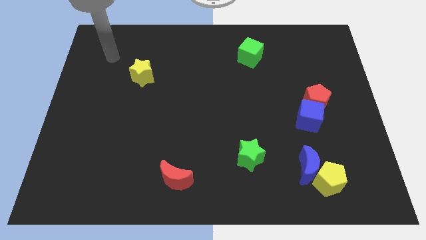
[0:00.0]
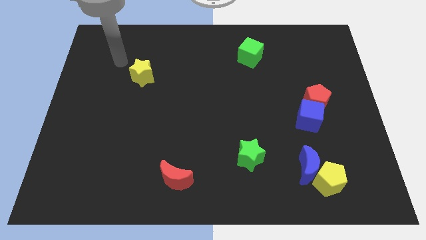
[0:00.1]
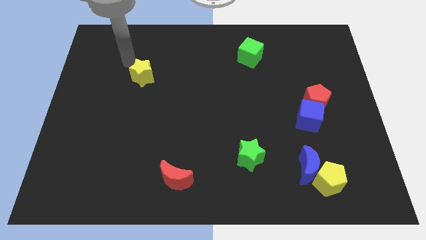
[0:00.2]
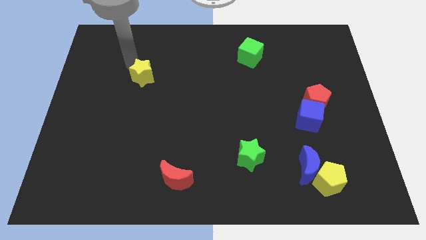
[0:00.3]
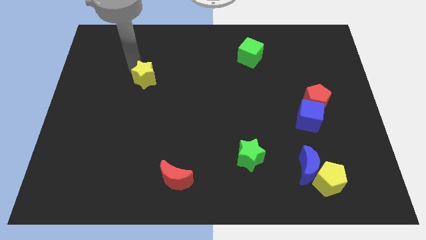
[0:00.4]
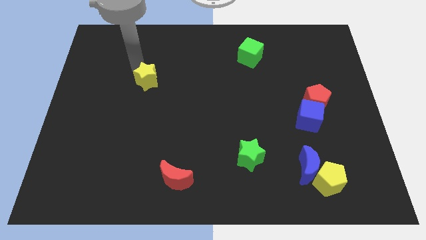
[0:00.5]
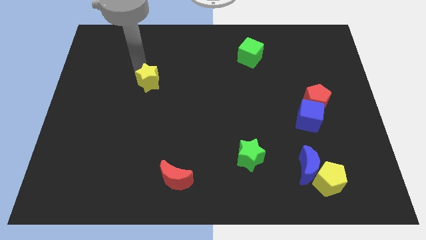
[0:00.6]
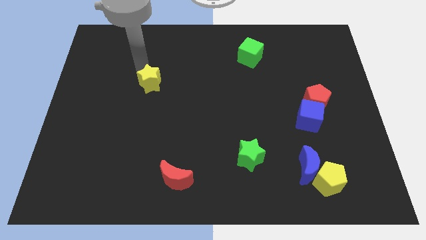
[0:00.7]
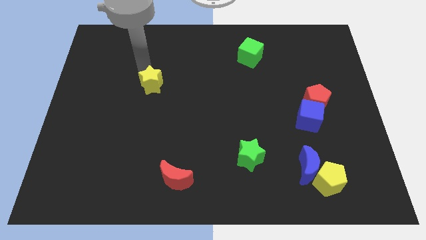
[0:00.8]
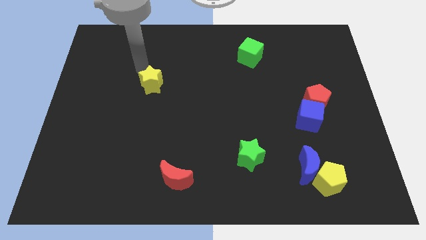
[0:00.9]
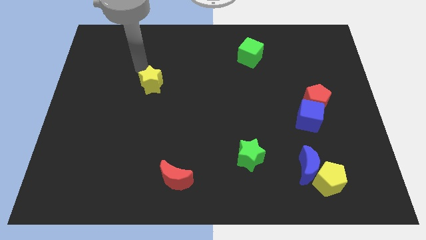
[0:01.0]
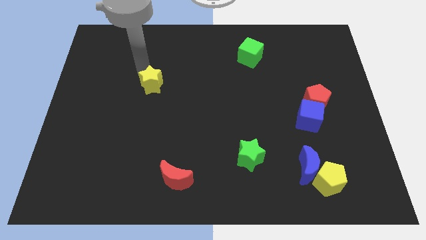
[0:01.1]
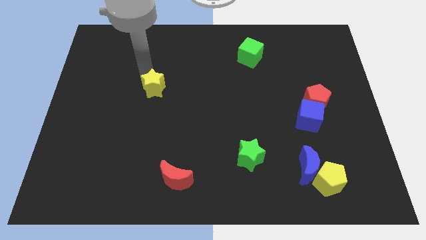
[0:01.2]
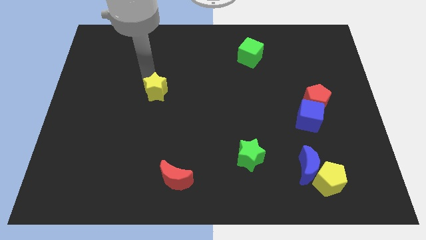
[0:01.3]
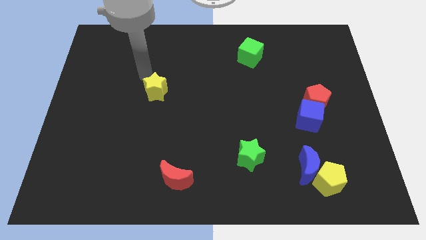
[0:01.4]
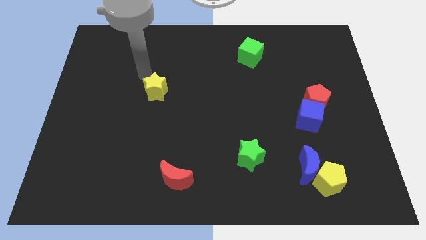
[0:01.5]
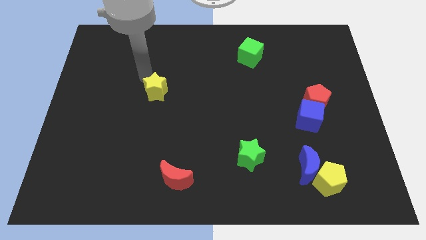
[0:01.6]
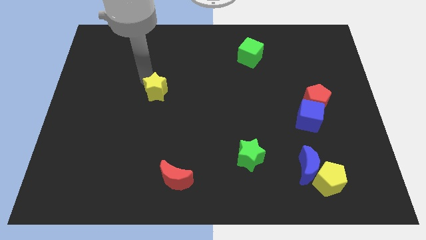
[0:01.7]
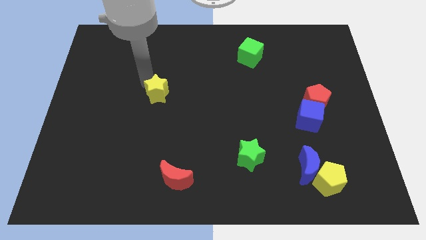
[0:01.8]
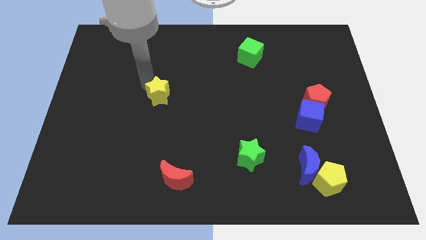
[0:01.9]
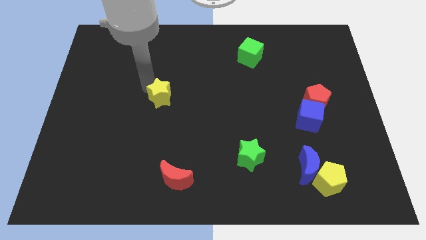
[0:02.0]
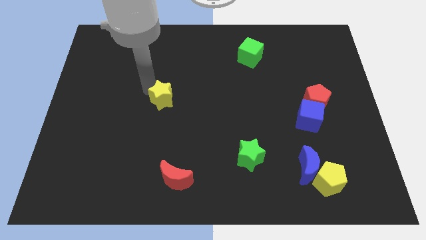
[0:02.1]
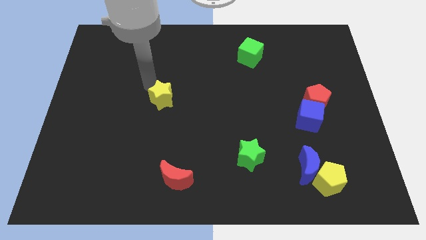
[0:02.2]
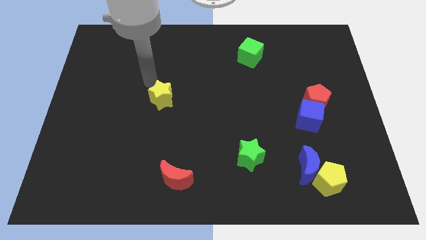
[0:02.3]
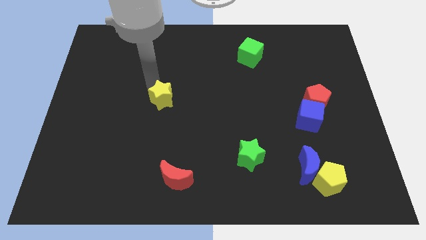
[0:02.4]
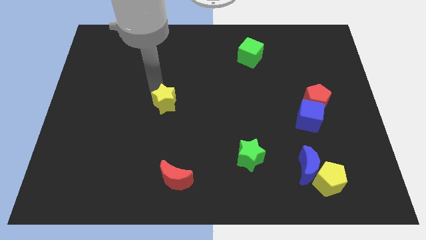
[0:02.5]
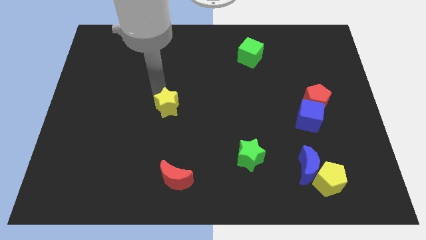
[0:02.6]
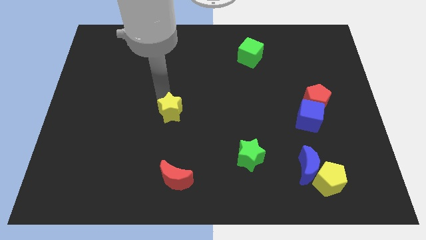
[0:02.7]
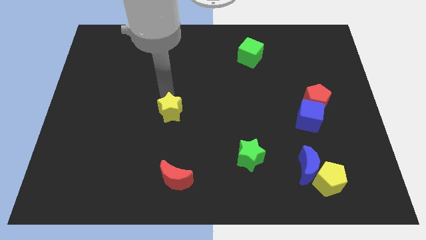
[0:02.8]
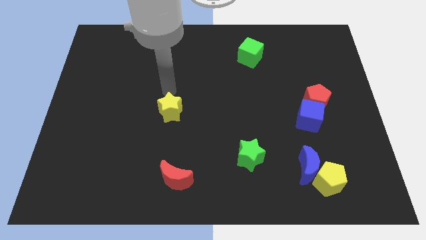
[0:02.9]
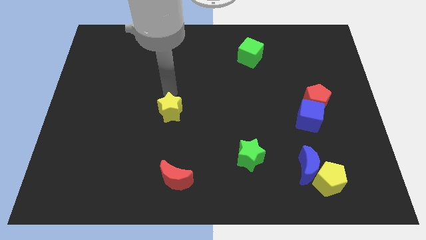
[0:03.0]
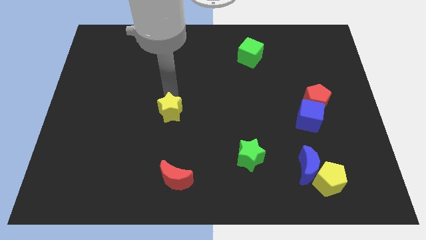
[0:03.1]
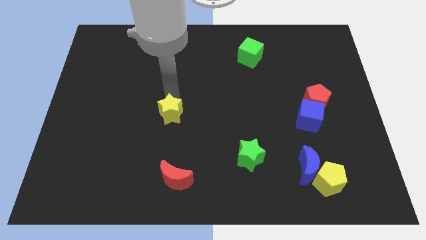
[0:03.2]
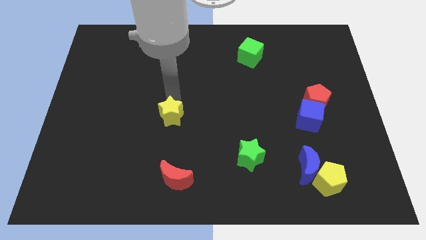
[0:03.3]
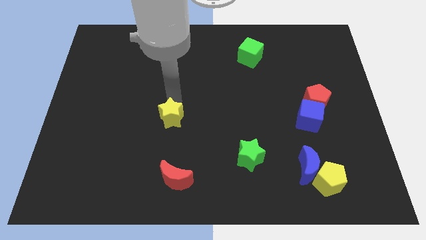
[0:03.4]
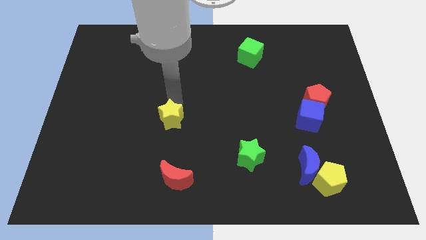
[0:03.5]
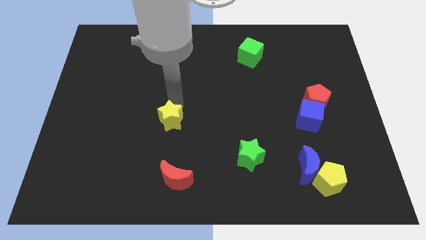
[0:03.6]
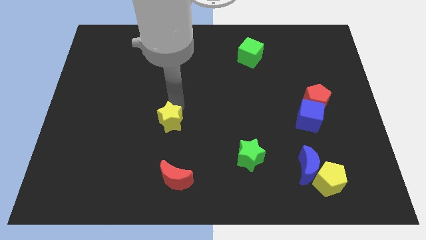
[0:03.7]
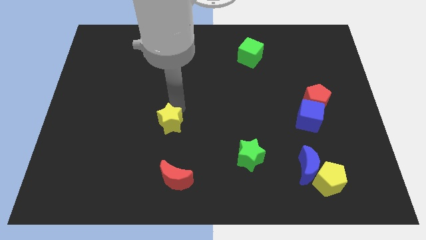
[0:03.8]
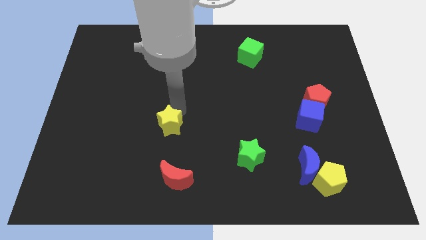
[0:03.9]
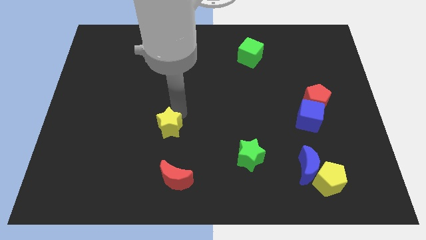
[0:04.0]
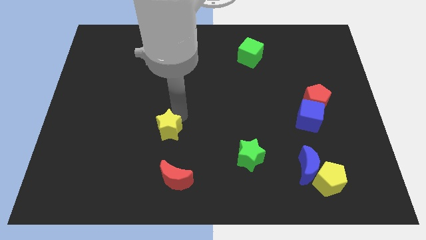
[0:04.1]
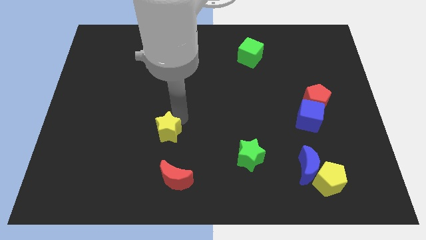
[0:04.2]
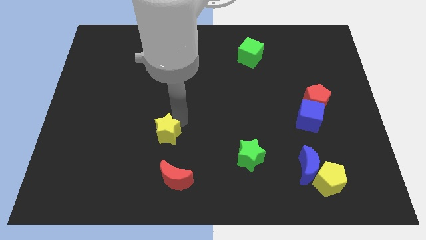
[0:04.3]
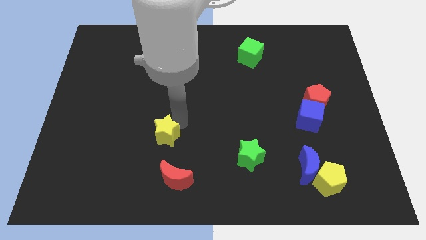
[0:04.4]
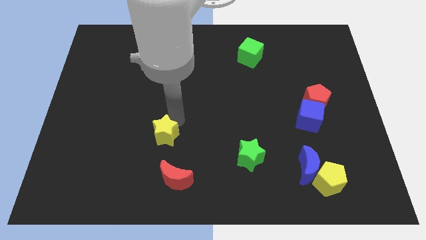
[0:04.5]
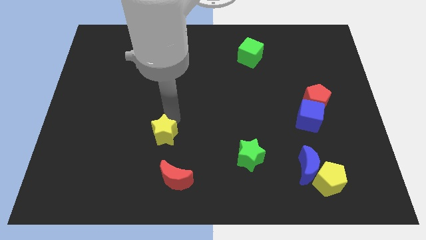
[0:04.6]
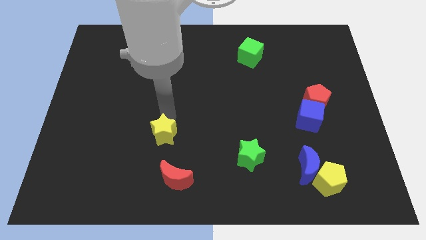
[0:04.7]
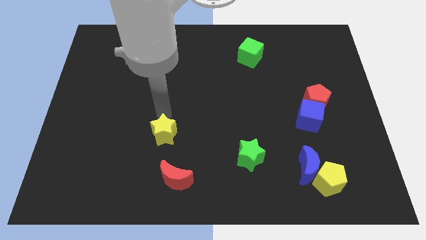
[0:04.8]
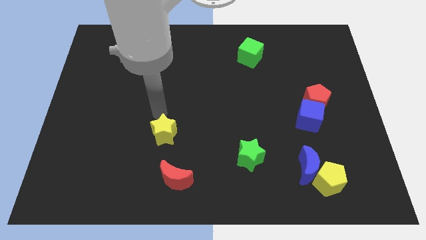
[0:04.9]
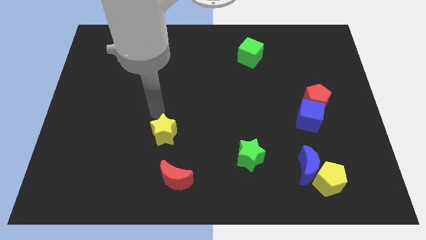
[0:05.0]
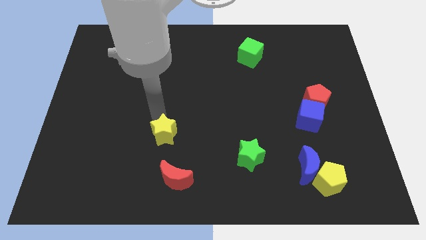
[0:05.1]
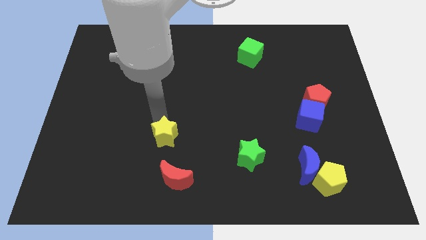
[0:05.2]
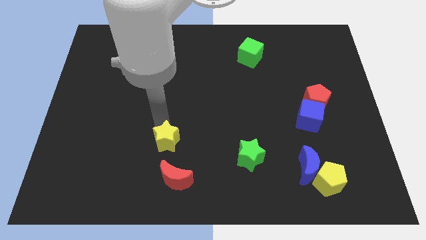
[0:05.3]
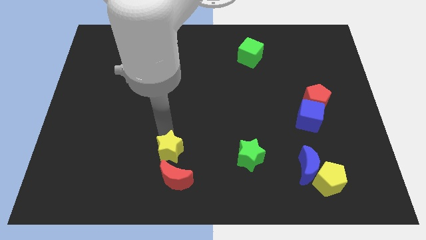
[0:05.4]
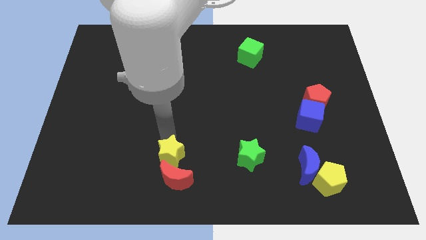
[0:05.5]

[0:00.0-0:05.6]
slide the yellow star towards the red moon

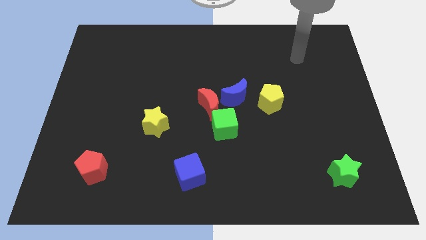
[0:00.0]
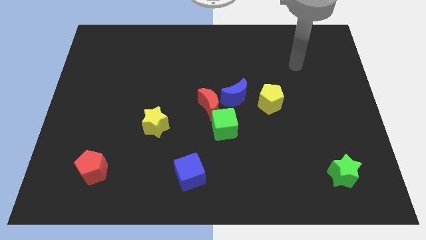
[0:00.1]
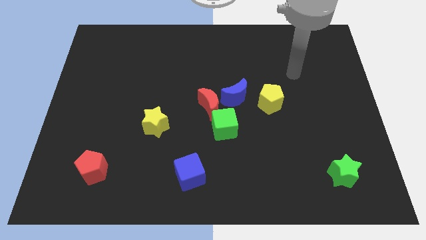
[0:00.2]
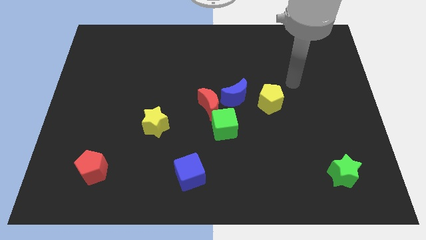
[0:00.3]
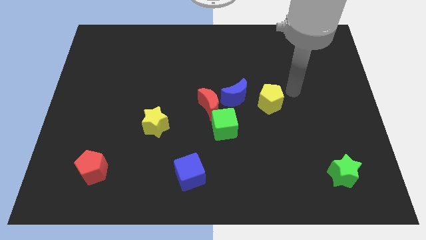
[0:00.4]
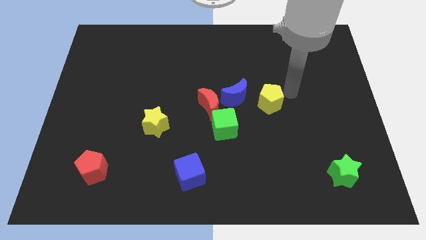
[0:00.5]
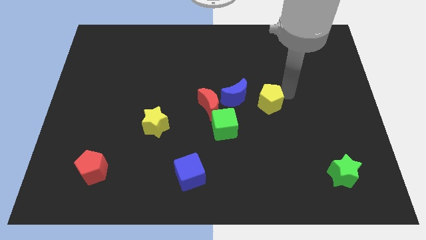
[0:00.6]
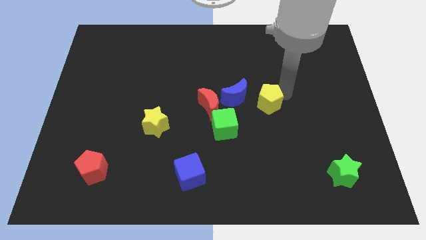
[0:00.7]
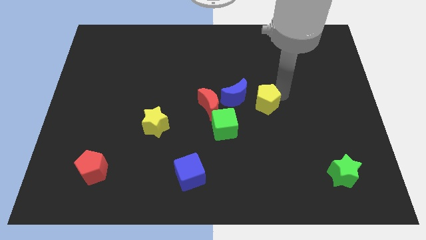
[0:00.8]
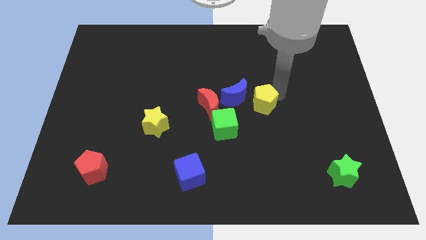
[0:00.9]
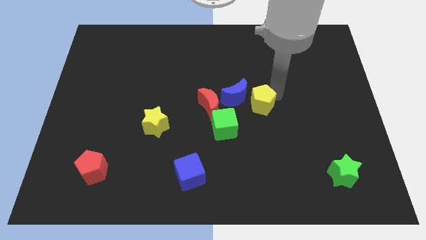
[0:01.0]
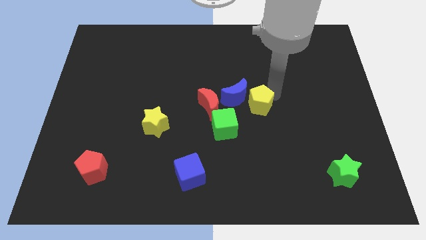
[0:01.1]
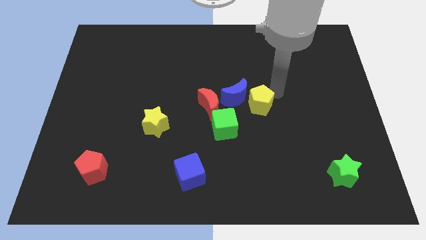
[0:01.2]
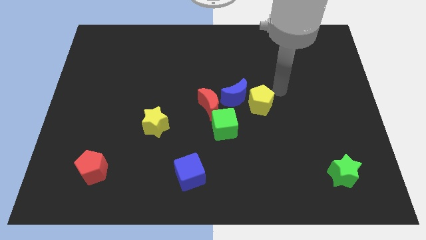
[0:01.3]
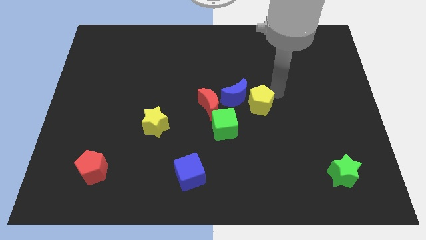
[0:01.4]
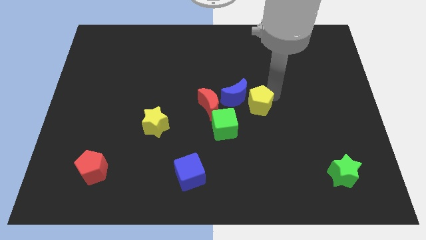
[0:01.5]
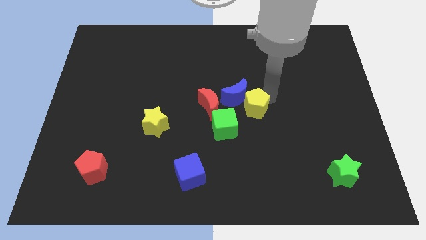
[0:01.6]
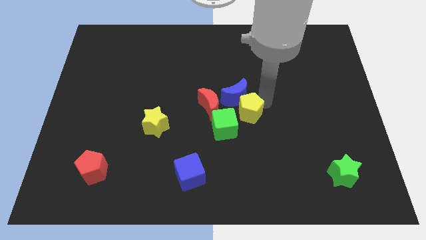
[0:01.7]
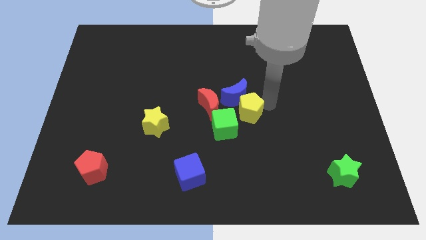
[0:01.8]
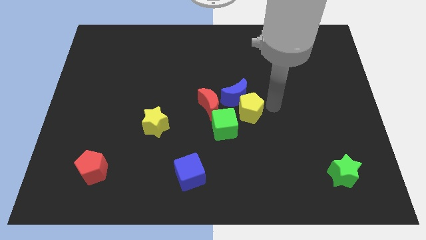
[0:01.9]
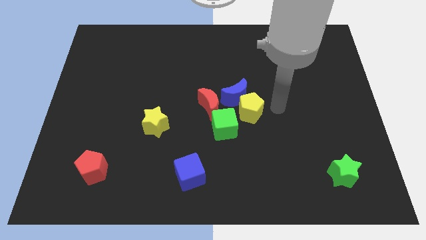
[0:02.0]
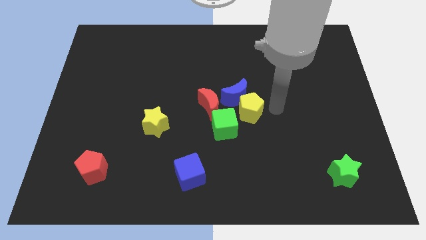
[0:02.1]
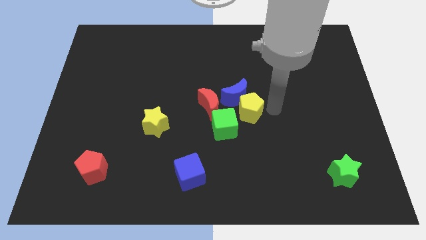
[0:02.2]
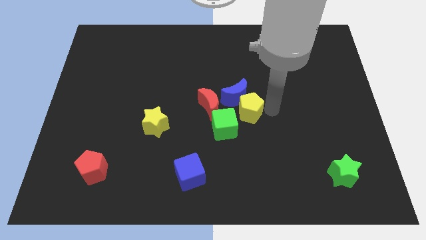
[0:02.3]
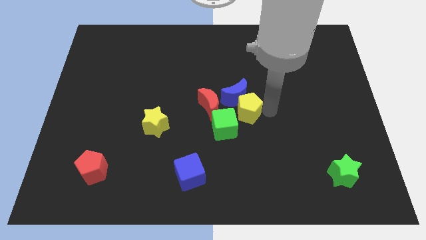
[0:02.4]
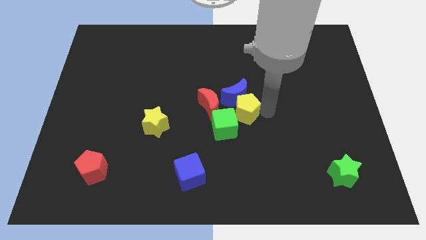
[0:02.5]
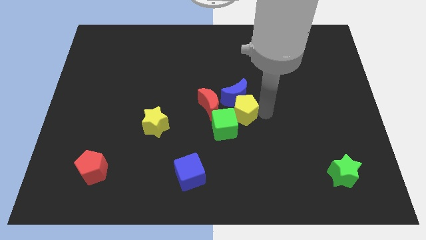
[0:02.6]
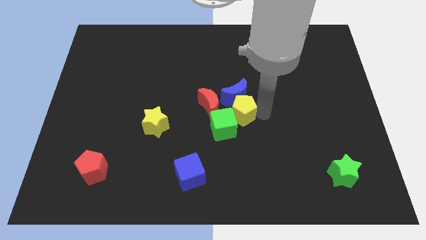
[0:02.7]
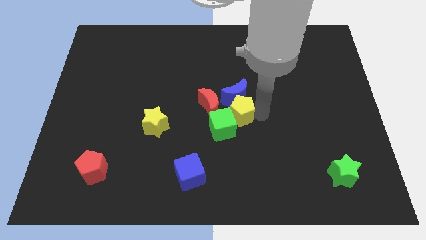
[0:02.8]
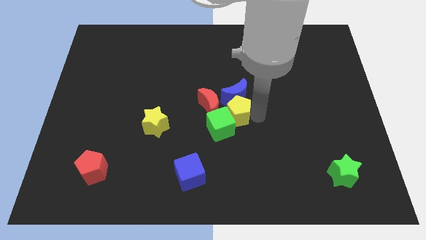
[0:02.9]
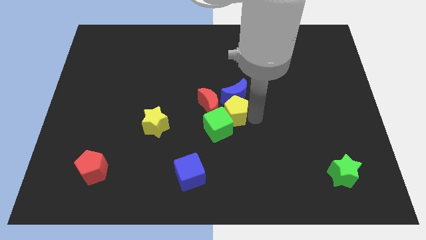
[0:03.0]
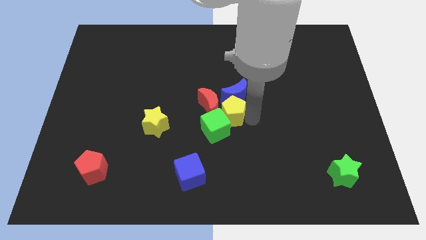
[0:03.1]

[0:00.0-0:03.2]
push the yellow pentagon close to the red moon
